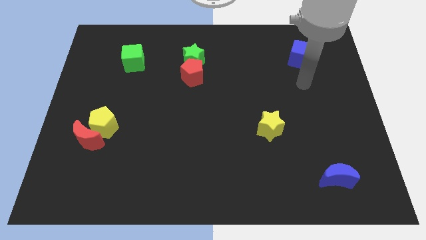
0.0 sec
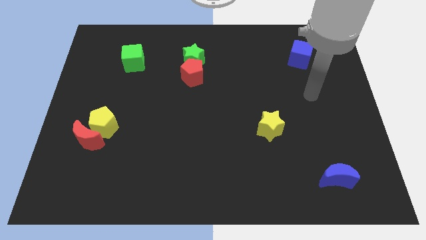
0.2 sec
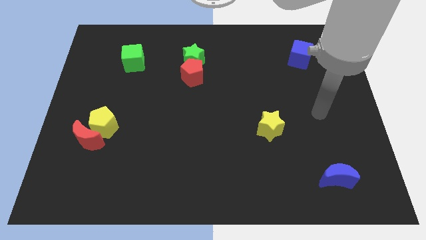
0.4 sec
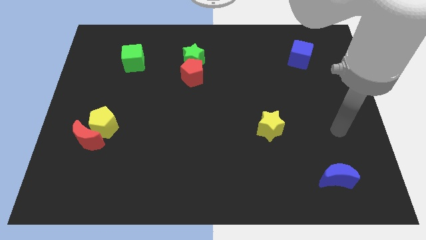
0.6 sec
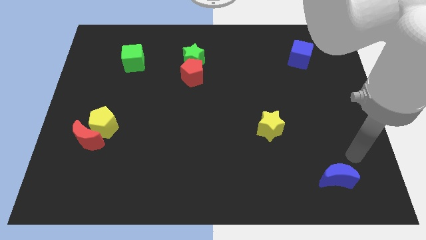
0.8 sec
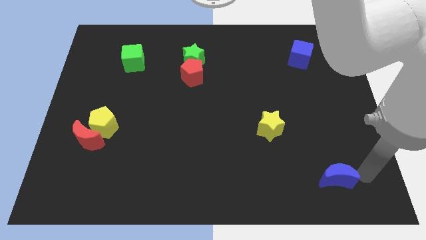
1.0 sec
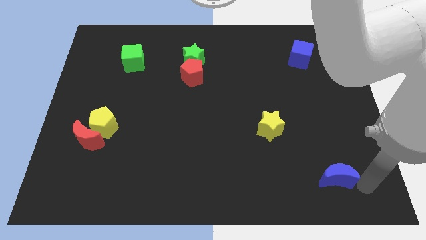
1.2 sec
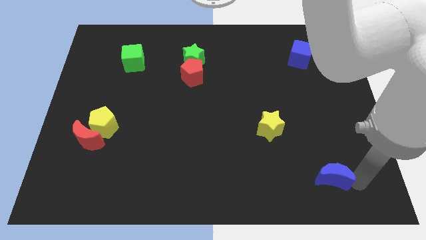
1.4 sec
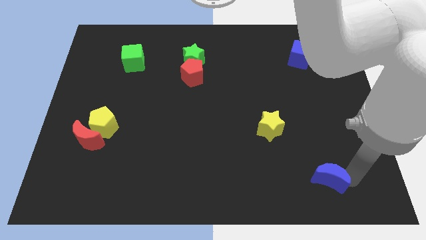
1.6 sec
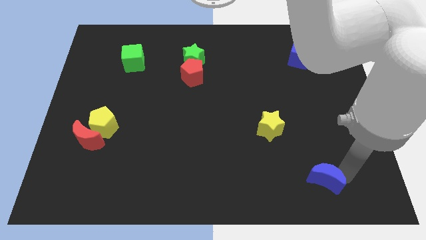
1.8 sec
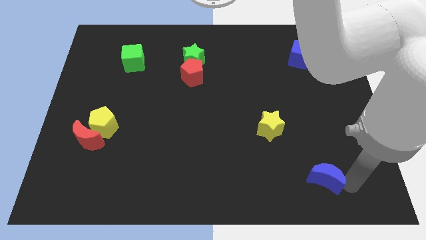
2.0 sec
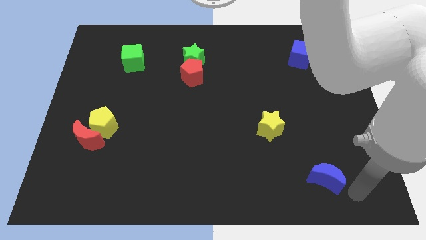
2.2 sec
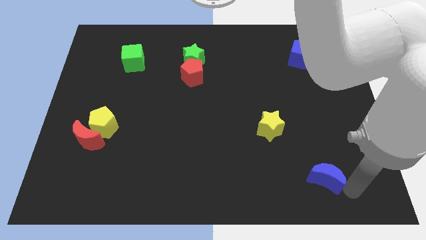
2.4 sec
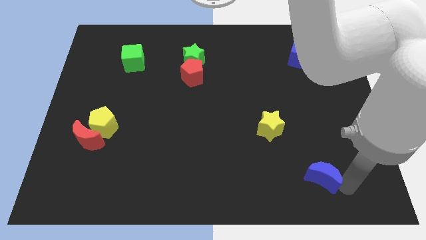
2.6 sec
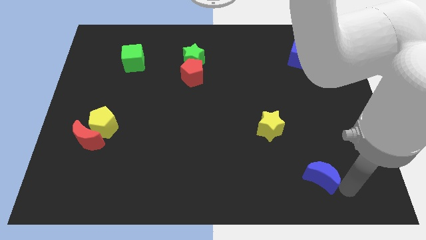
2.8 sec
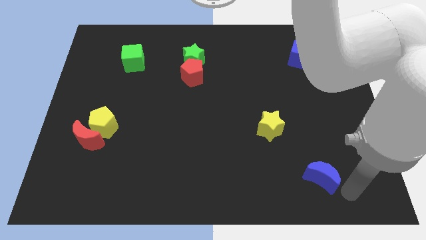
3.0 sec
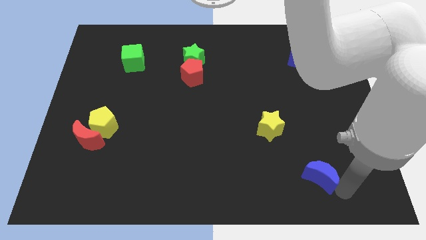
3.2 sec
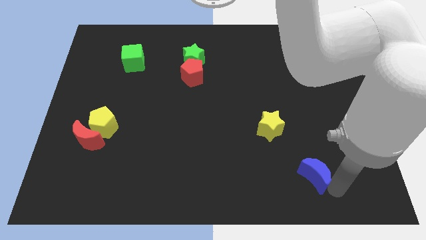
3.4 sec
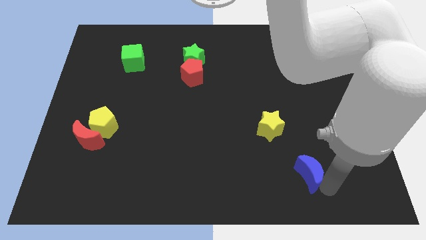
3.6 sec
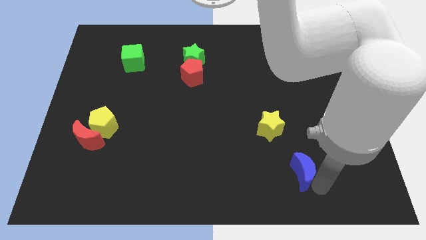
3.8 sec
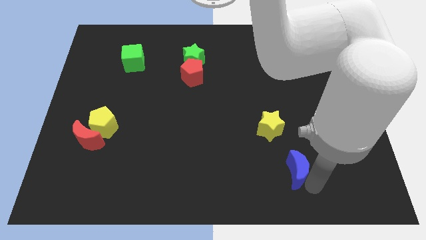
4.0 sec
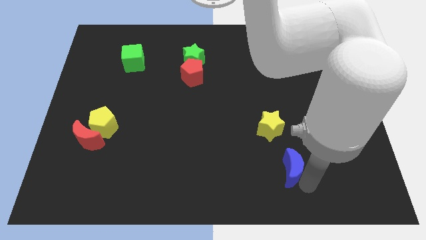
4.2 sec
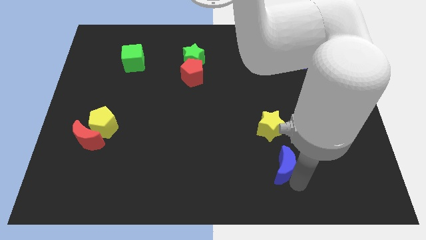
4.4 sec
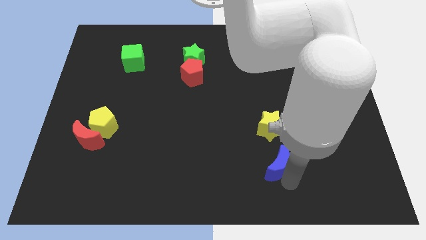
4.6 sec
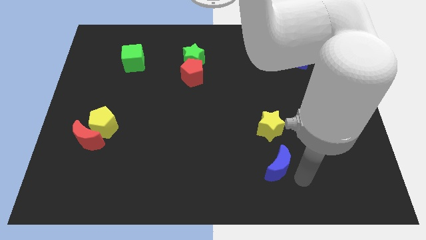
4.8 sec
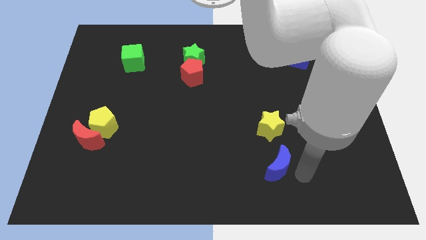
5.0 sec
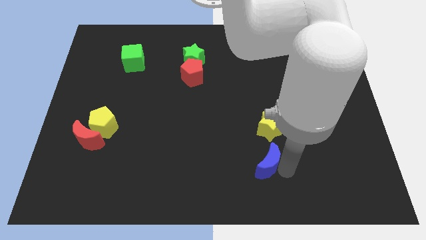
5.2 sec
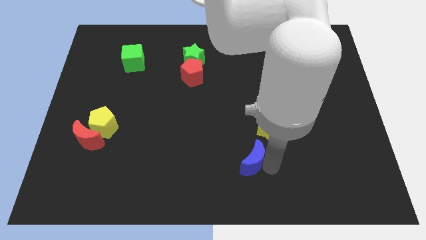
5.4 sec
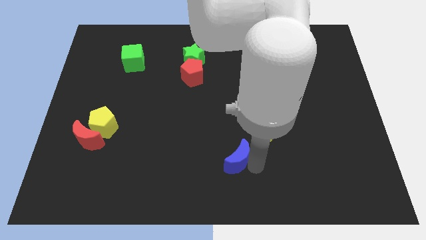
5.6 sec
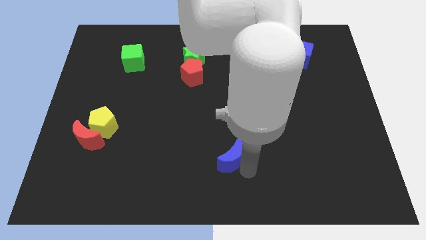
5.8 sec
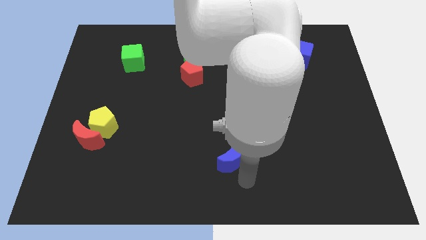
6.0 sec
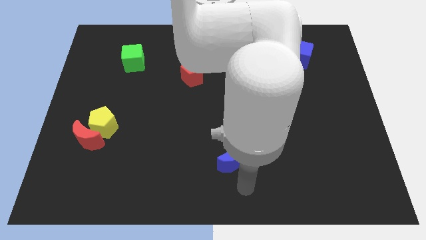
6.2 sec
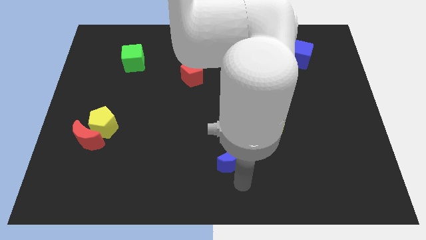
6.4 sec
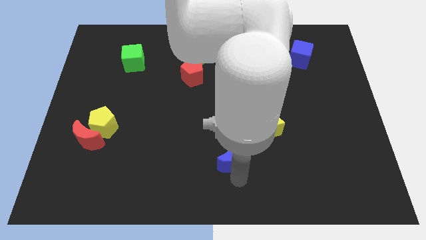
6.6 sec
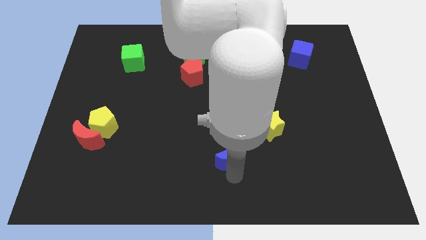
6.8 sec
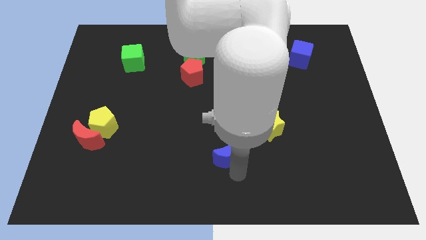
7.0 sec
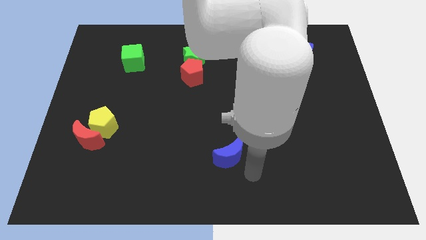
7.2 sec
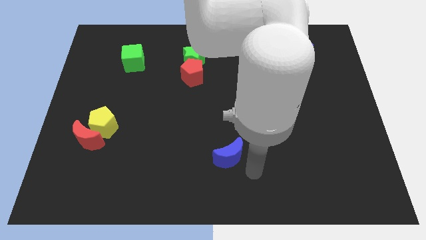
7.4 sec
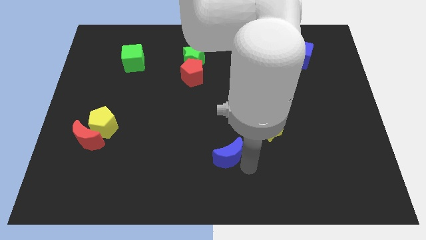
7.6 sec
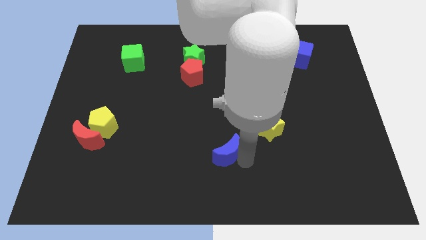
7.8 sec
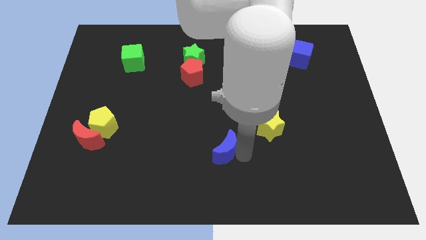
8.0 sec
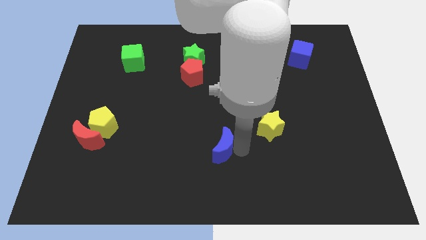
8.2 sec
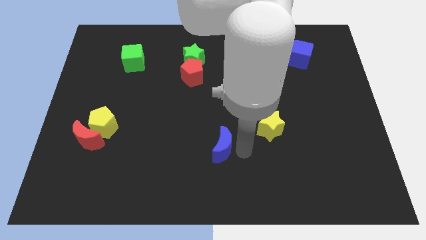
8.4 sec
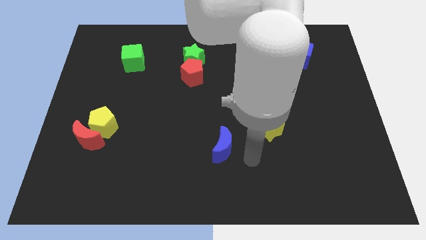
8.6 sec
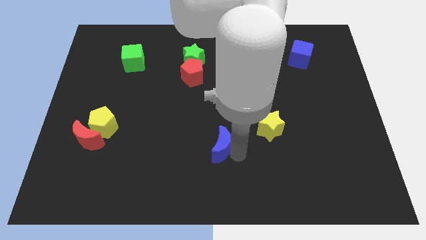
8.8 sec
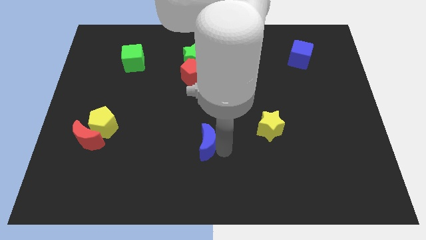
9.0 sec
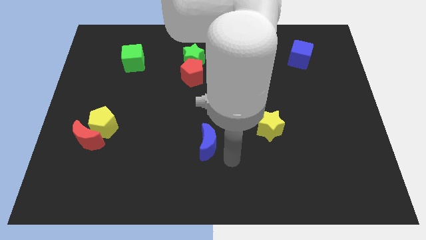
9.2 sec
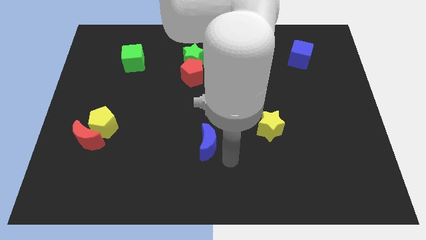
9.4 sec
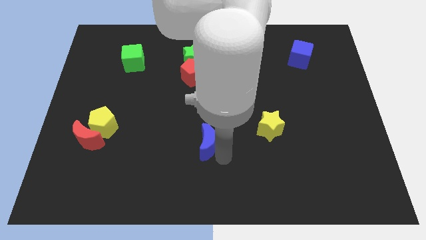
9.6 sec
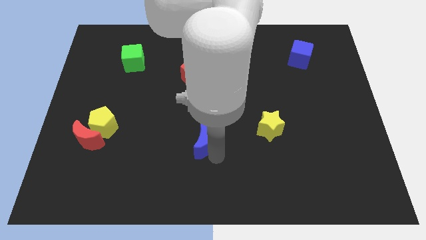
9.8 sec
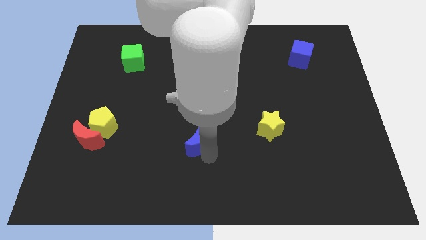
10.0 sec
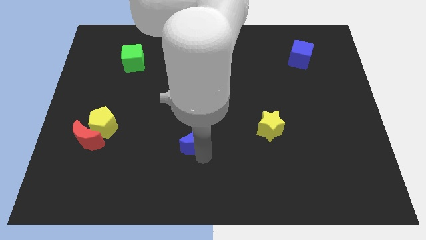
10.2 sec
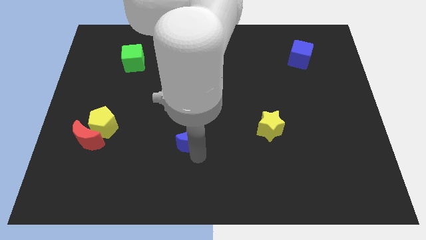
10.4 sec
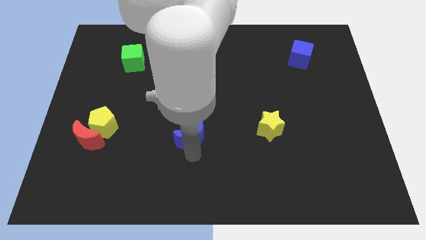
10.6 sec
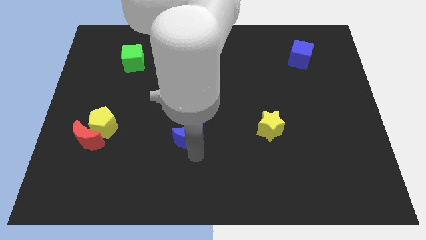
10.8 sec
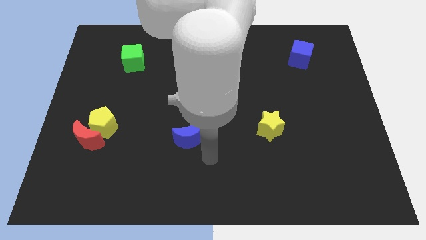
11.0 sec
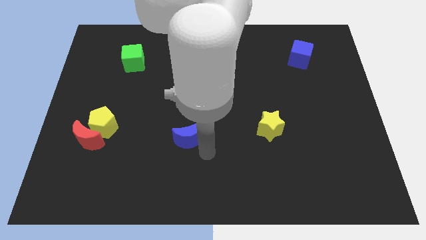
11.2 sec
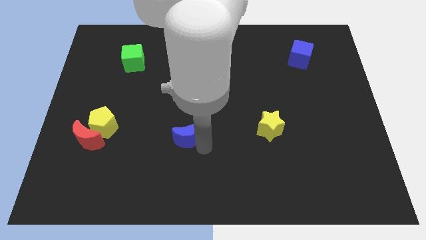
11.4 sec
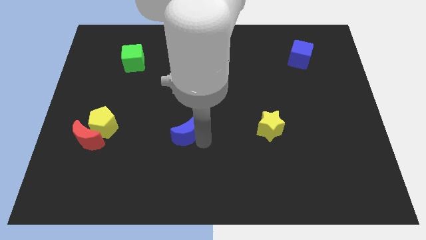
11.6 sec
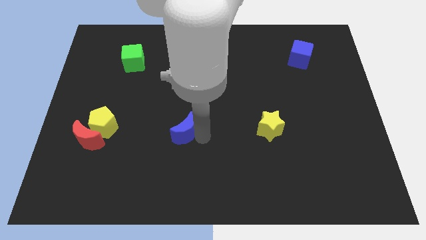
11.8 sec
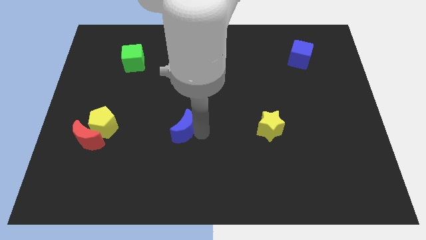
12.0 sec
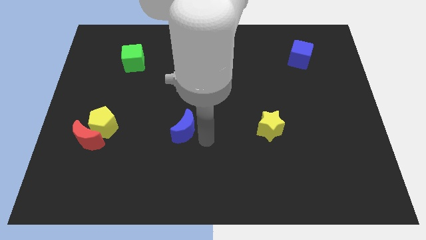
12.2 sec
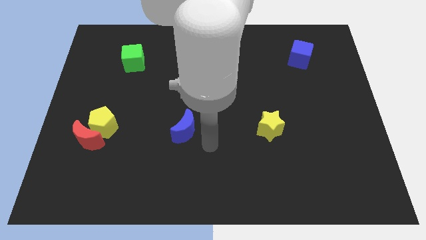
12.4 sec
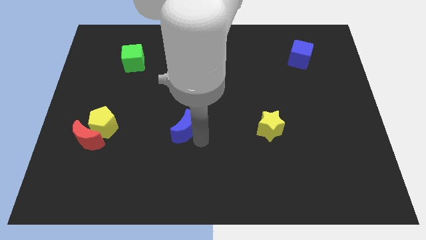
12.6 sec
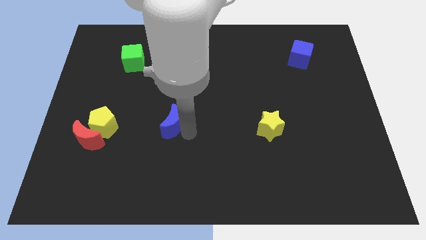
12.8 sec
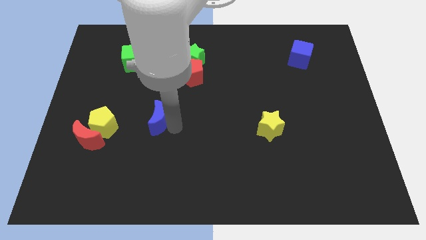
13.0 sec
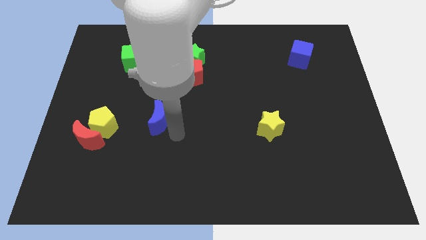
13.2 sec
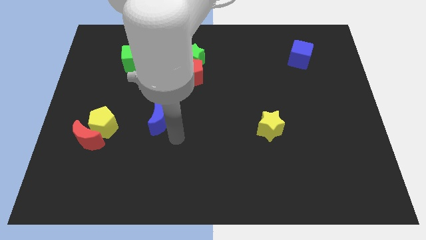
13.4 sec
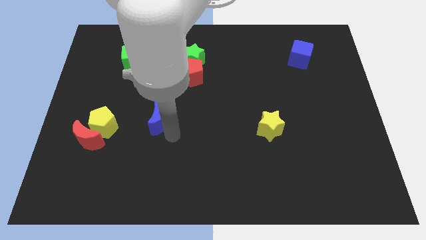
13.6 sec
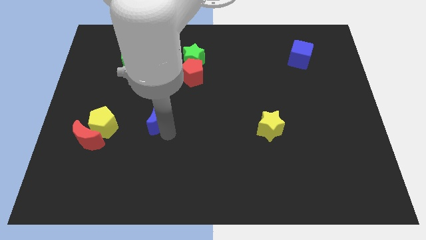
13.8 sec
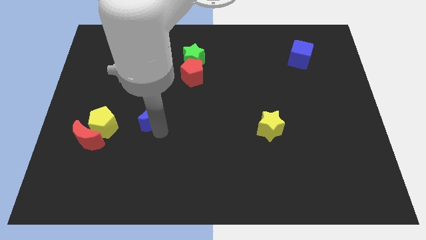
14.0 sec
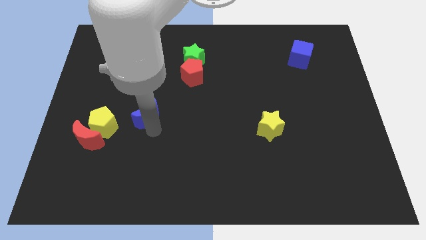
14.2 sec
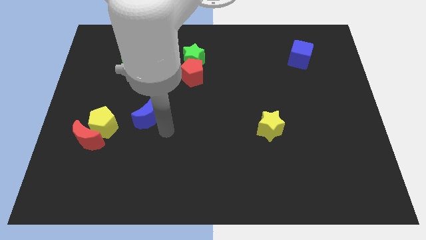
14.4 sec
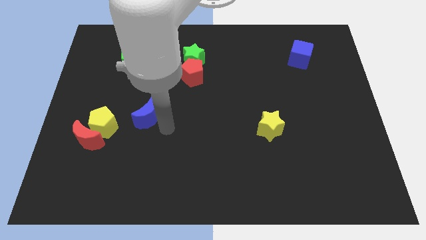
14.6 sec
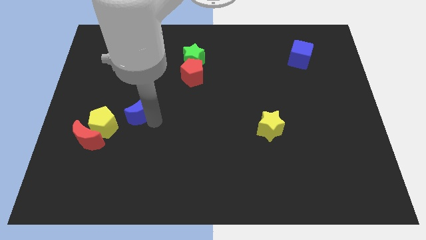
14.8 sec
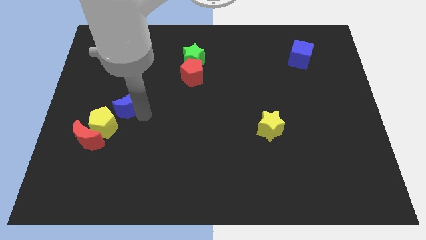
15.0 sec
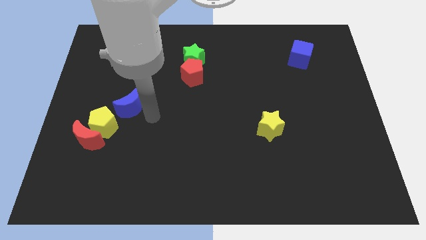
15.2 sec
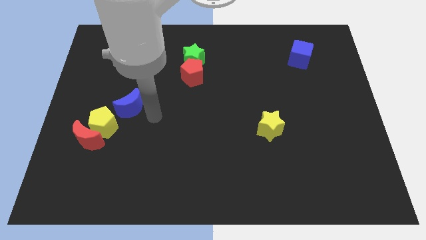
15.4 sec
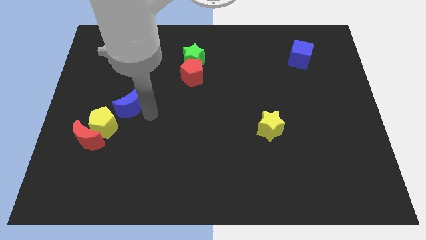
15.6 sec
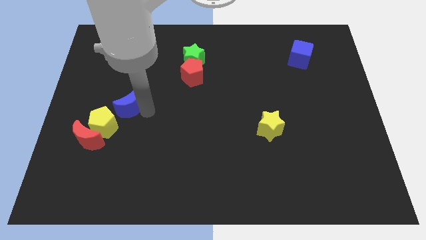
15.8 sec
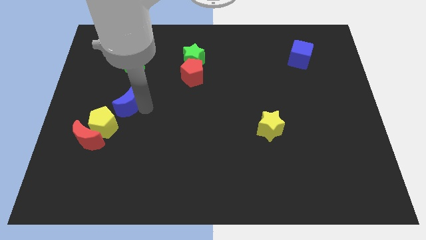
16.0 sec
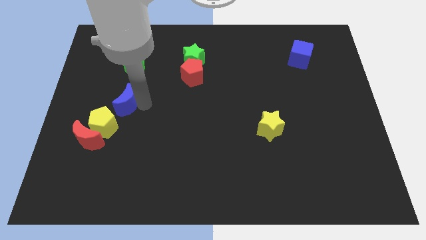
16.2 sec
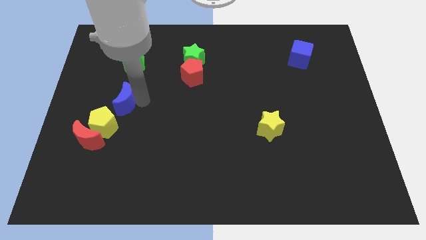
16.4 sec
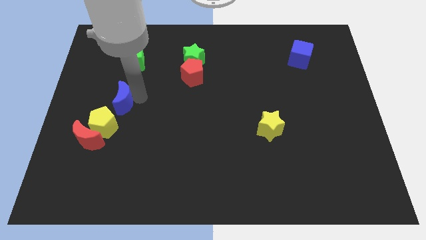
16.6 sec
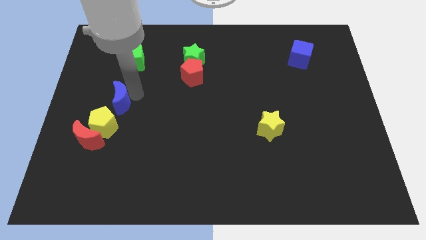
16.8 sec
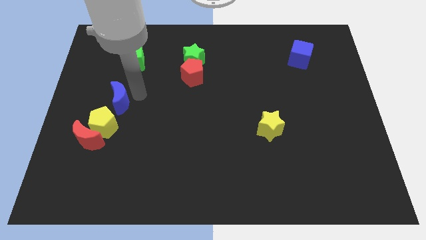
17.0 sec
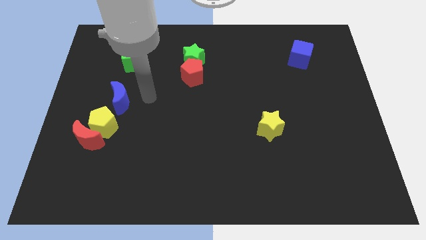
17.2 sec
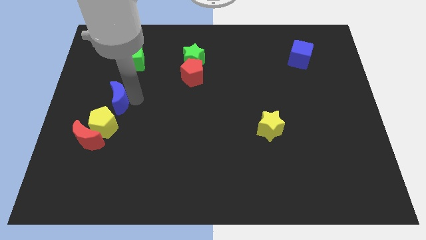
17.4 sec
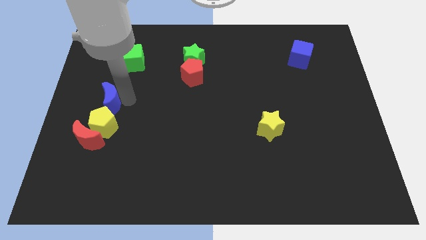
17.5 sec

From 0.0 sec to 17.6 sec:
put the blue moon to the top of the red moon
